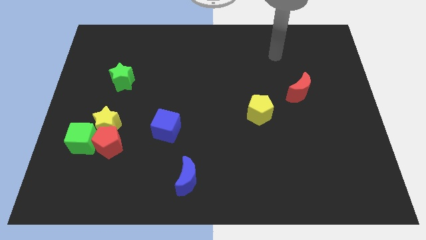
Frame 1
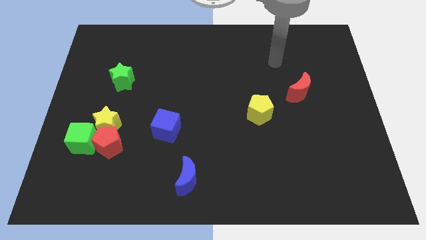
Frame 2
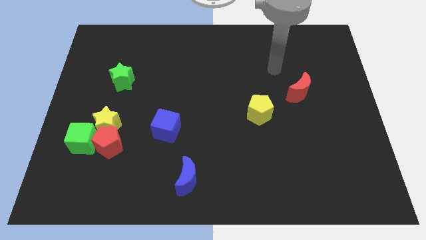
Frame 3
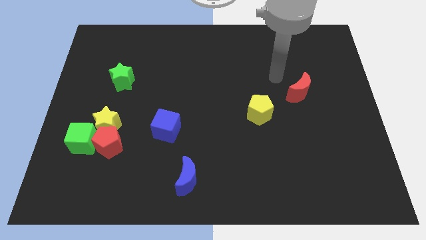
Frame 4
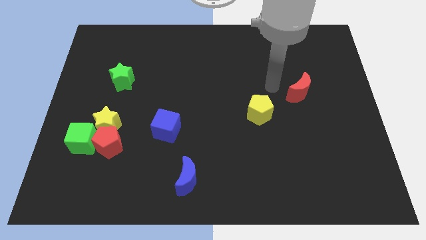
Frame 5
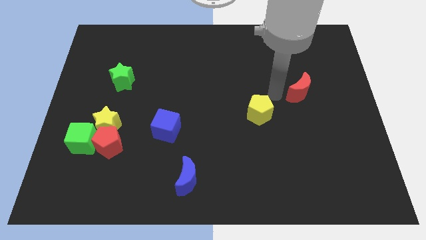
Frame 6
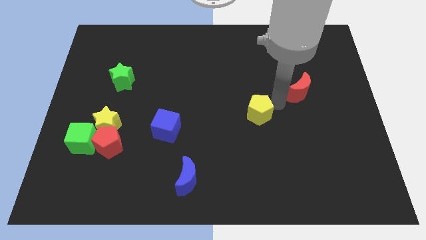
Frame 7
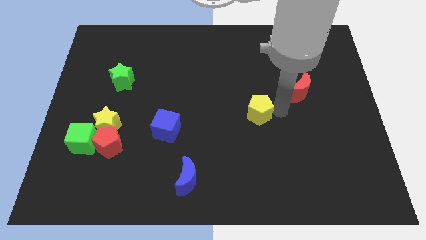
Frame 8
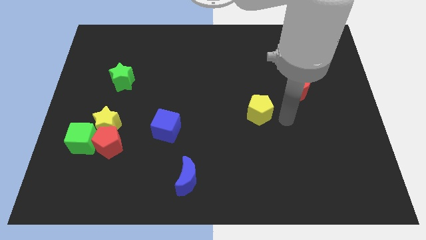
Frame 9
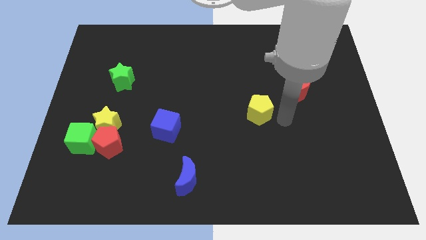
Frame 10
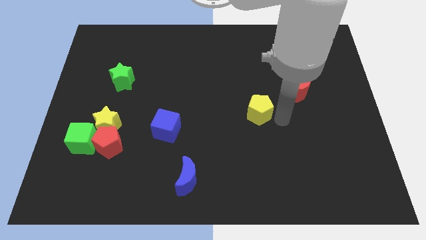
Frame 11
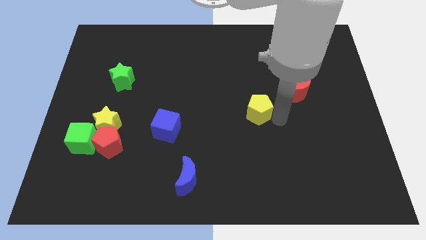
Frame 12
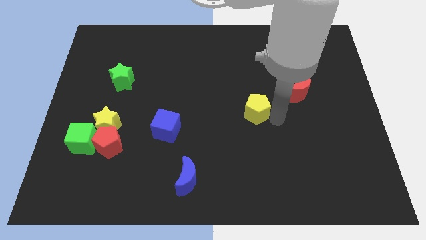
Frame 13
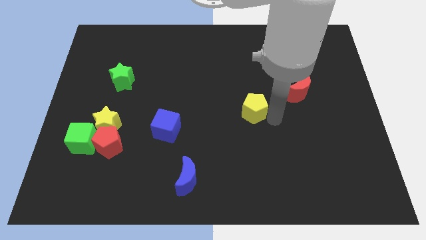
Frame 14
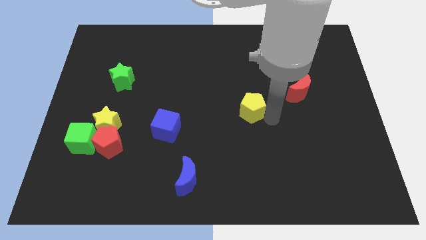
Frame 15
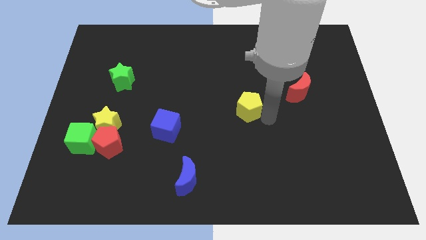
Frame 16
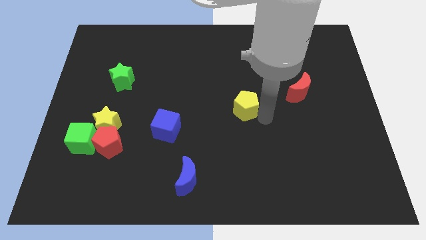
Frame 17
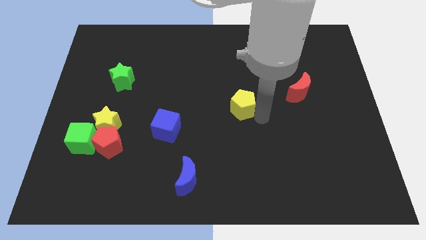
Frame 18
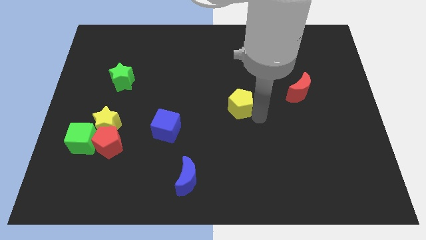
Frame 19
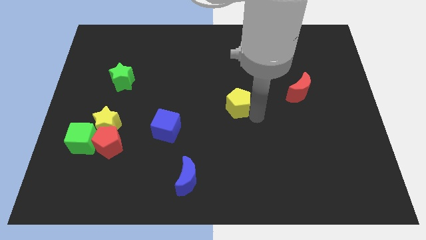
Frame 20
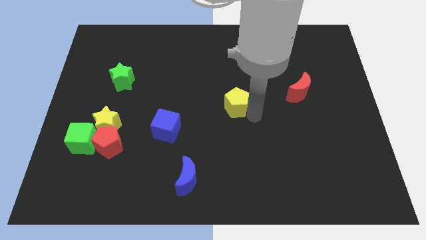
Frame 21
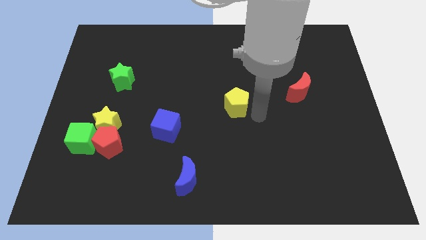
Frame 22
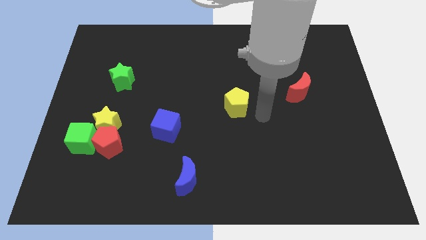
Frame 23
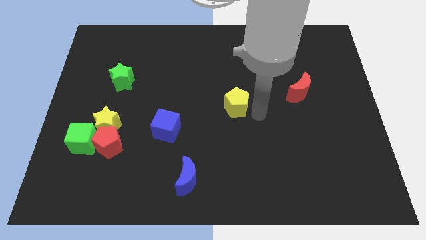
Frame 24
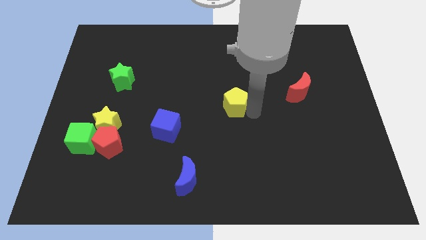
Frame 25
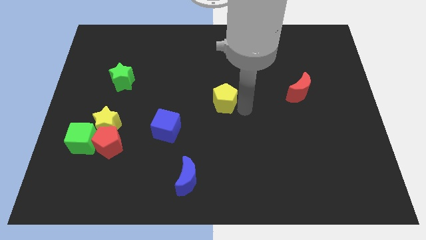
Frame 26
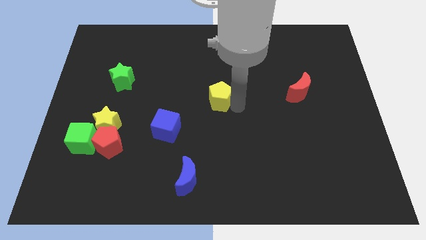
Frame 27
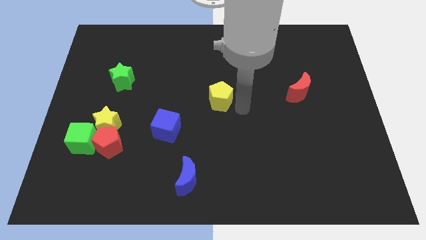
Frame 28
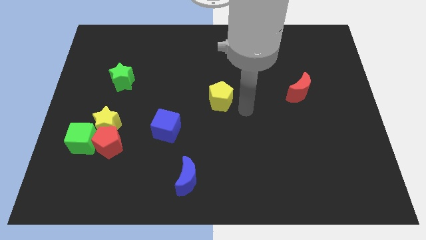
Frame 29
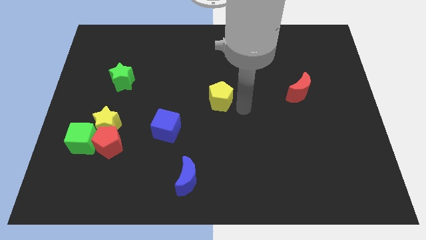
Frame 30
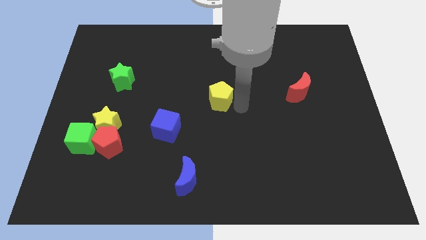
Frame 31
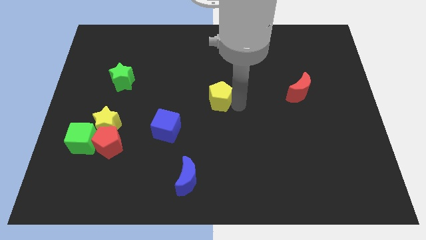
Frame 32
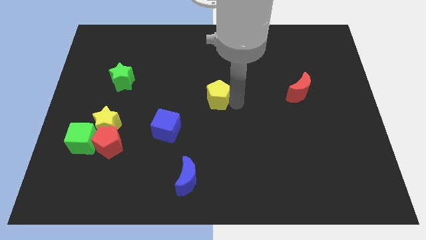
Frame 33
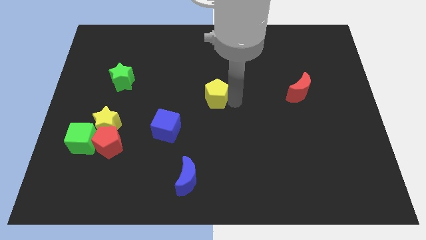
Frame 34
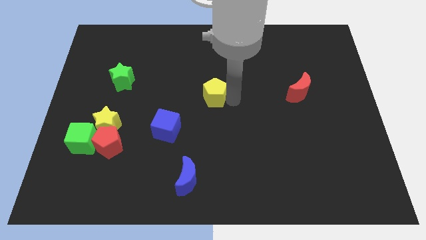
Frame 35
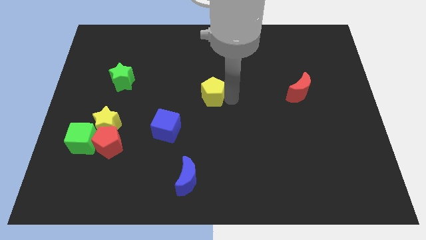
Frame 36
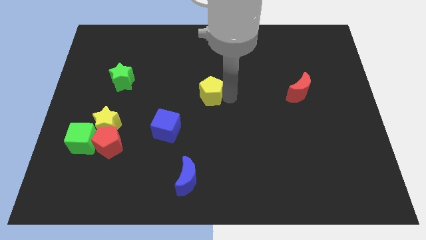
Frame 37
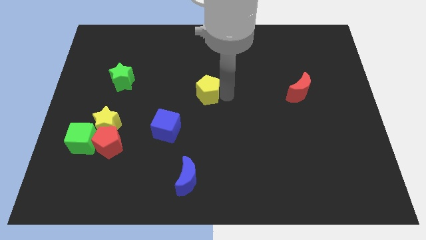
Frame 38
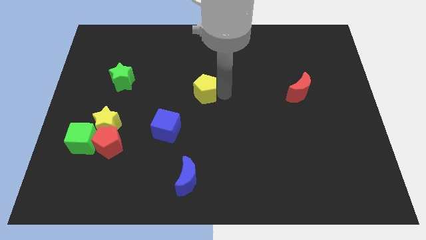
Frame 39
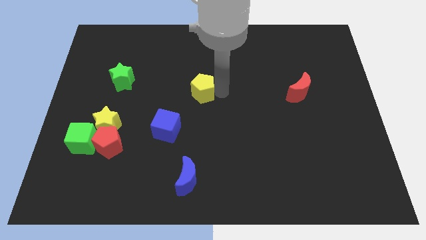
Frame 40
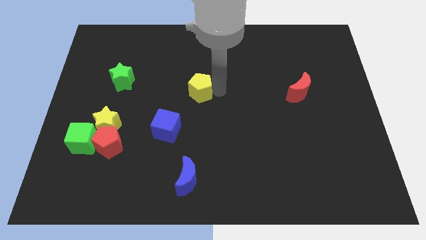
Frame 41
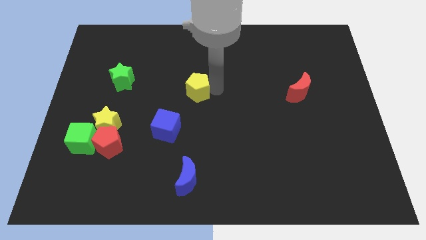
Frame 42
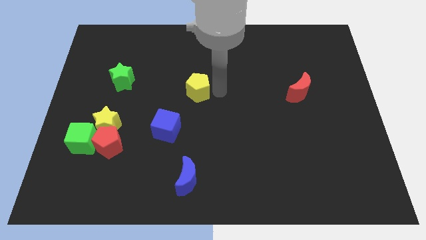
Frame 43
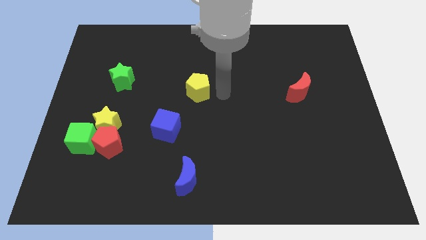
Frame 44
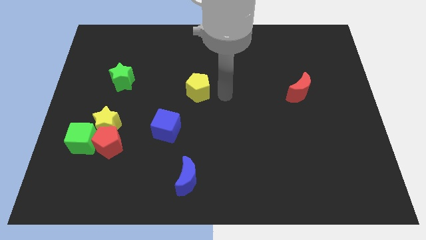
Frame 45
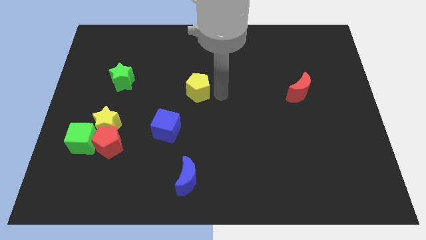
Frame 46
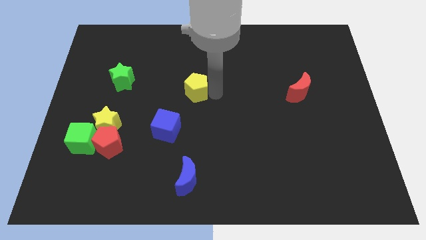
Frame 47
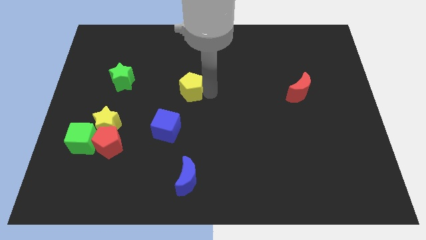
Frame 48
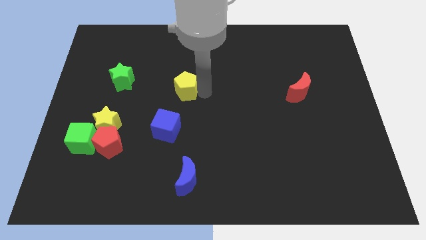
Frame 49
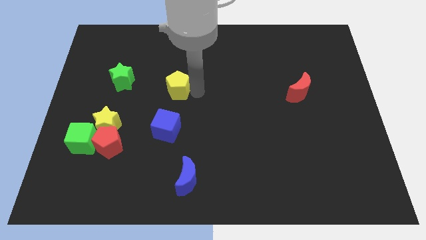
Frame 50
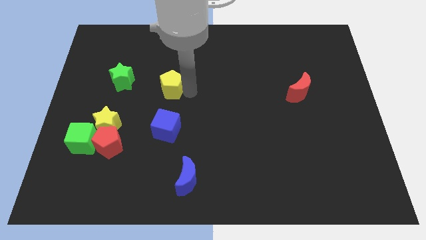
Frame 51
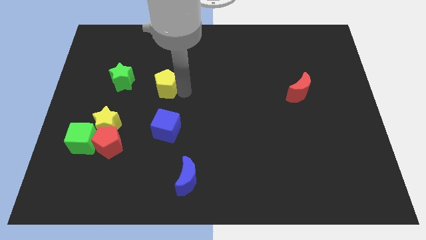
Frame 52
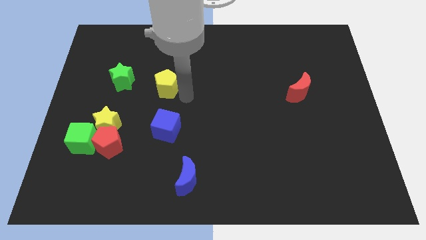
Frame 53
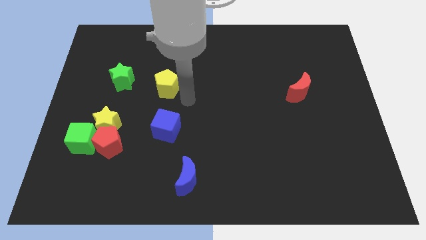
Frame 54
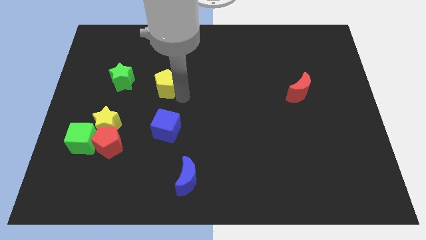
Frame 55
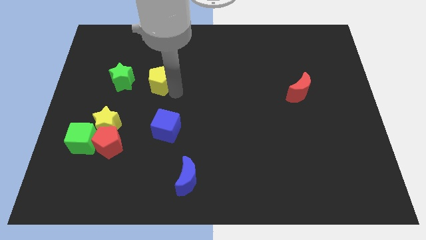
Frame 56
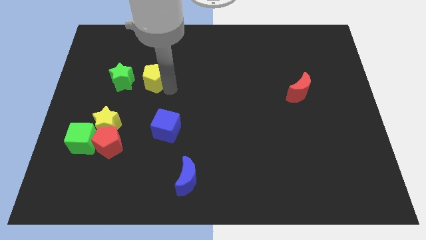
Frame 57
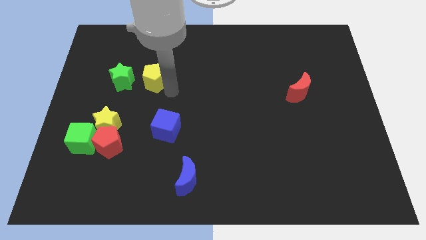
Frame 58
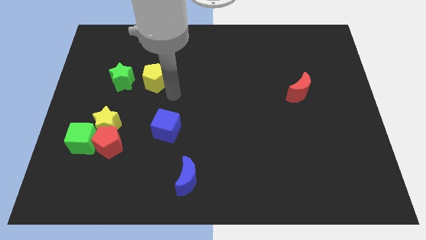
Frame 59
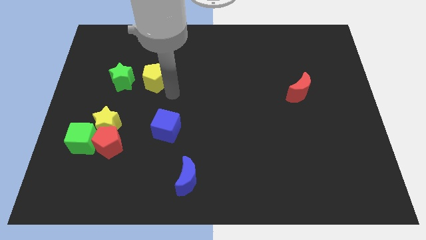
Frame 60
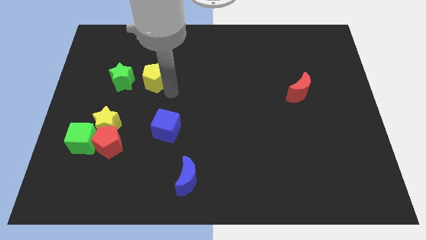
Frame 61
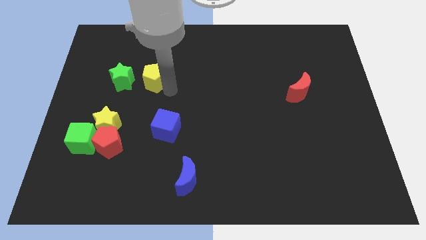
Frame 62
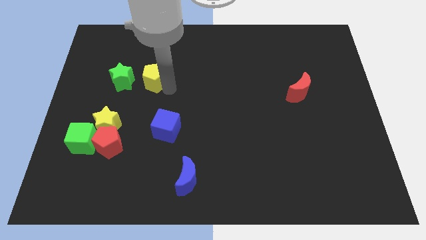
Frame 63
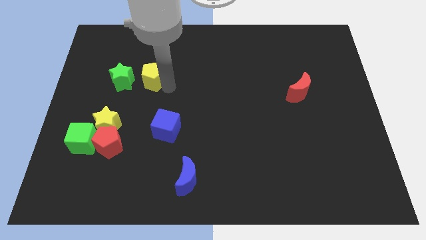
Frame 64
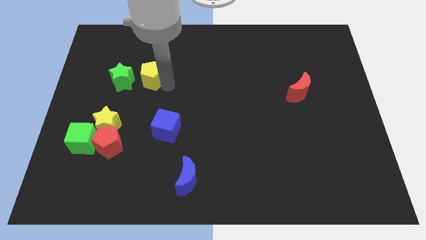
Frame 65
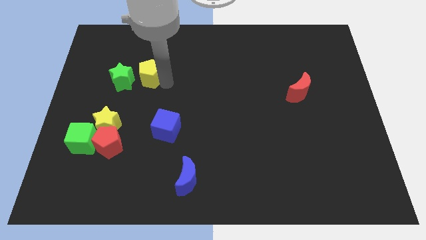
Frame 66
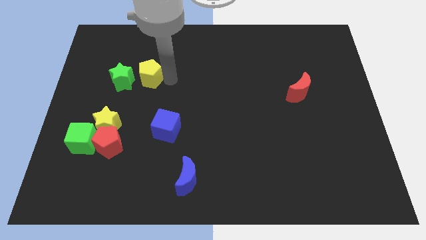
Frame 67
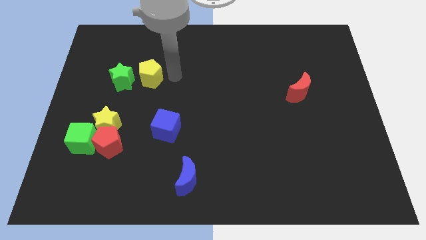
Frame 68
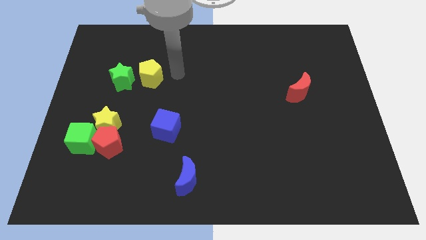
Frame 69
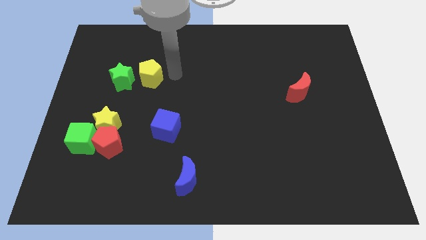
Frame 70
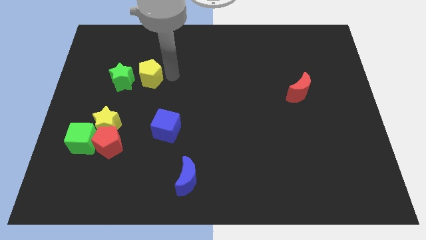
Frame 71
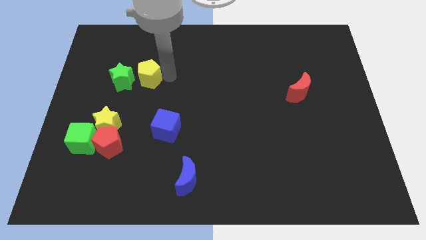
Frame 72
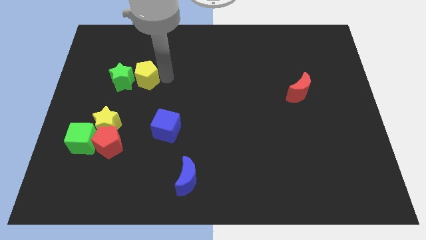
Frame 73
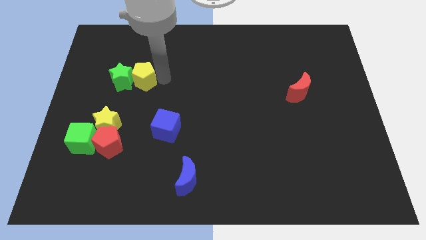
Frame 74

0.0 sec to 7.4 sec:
put the yellow pentagon to the green star
